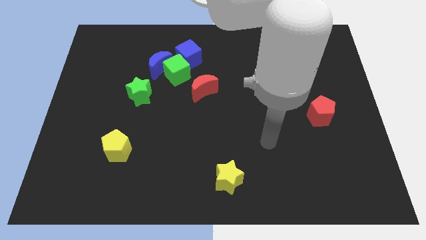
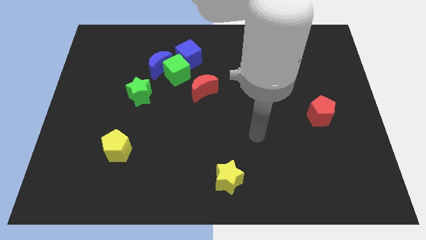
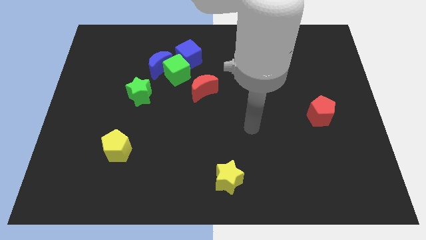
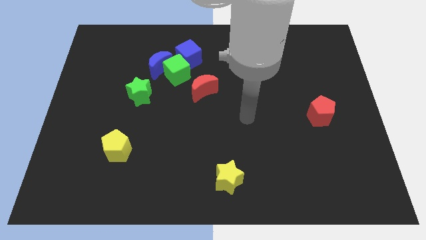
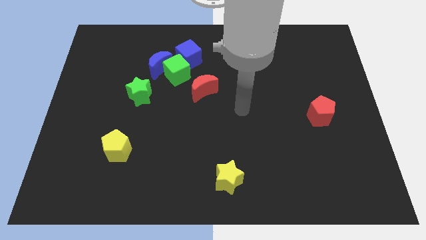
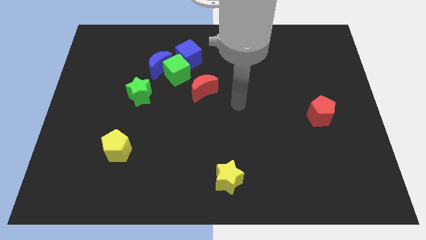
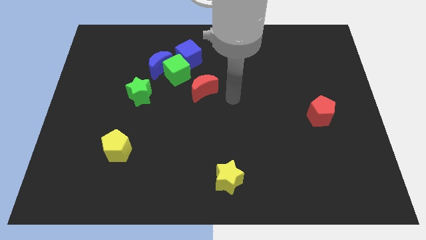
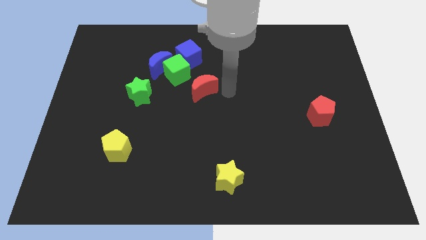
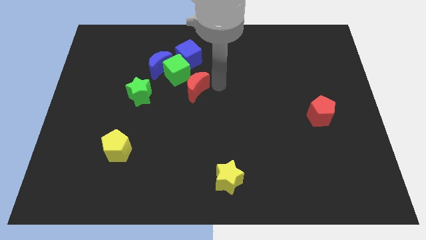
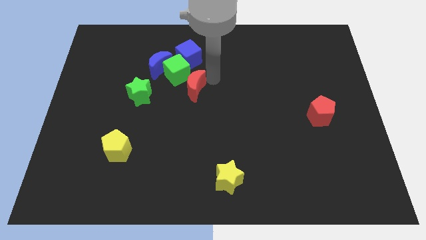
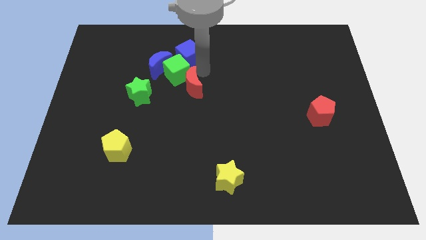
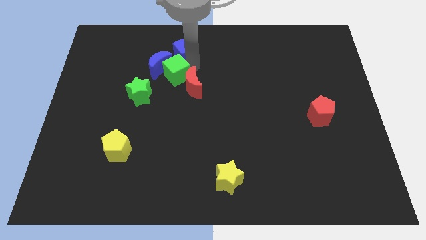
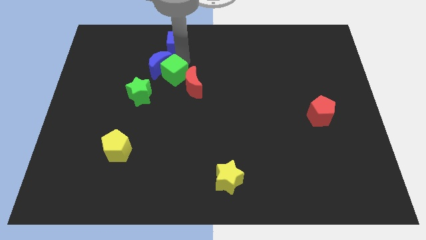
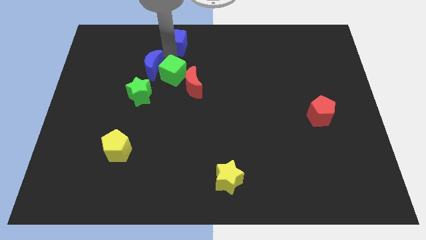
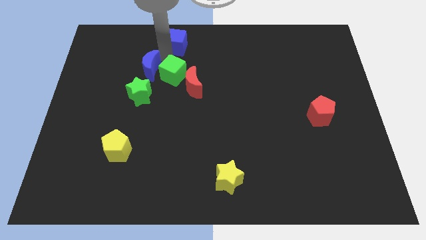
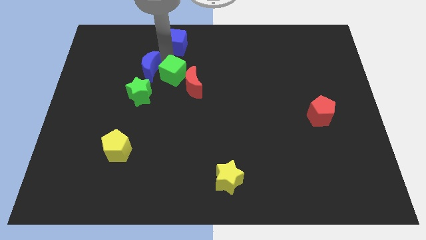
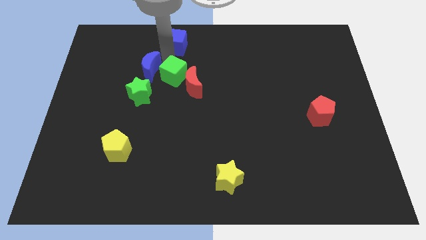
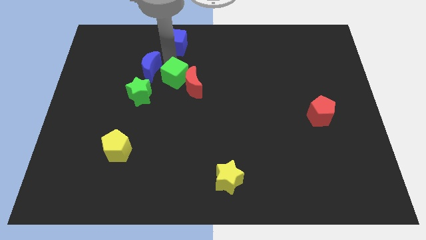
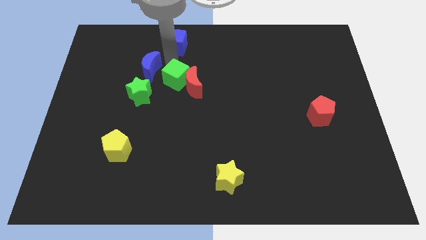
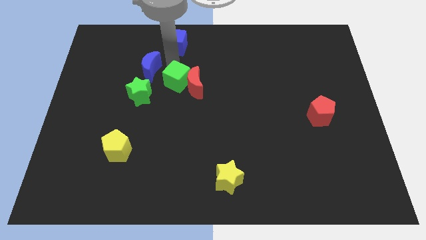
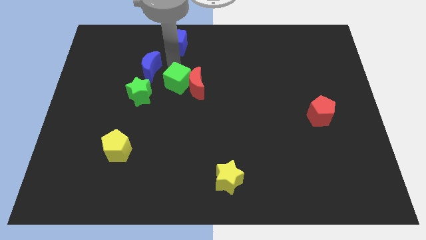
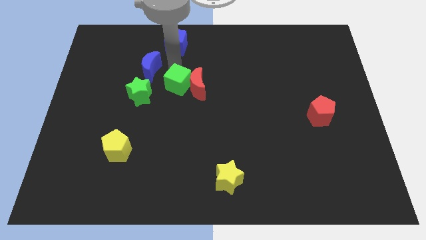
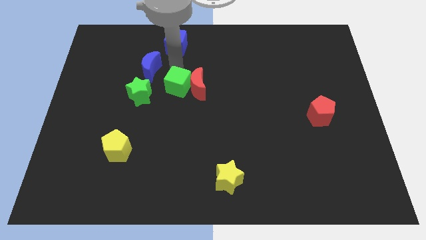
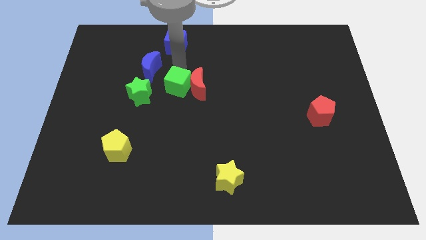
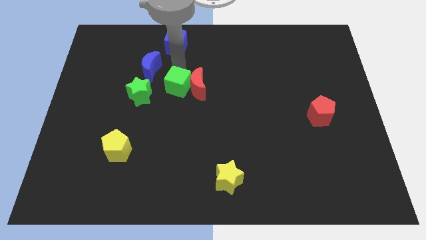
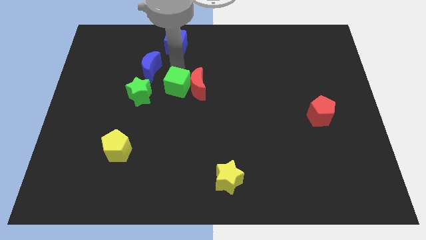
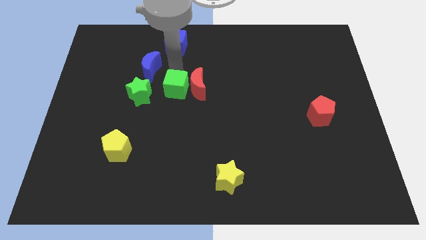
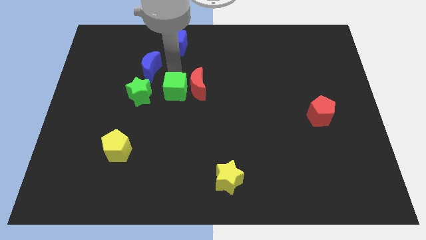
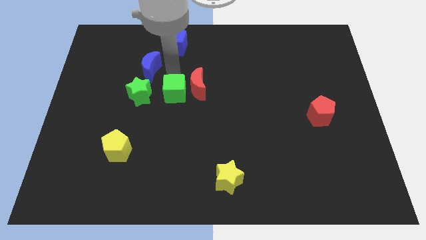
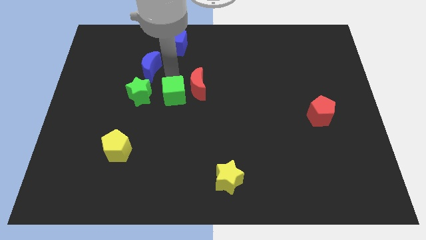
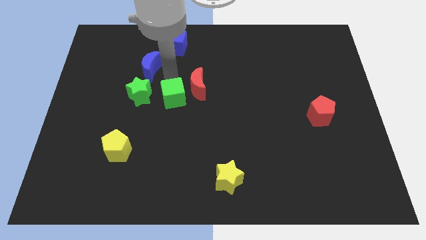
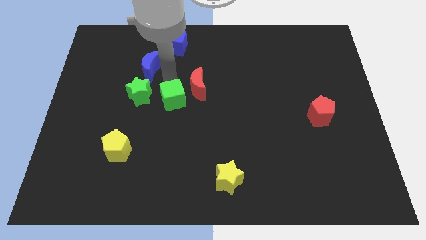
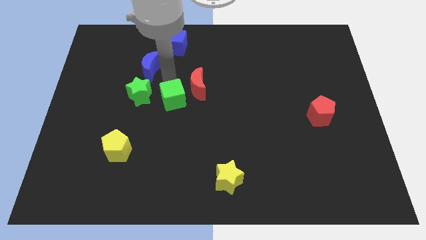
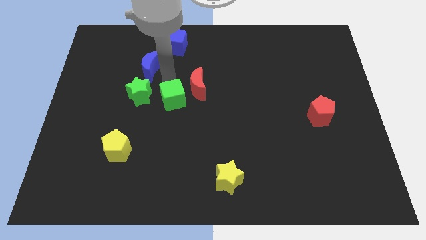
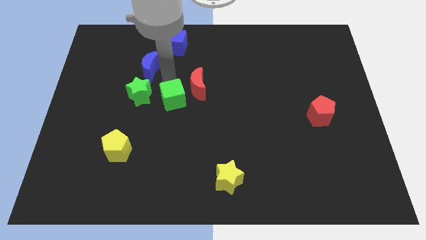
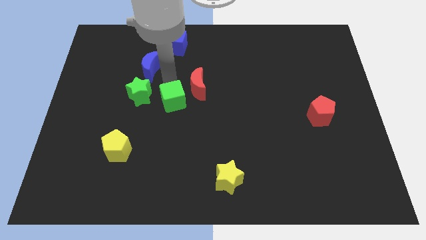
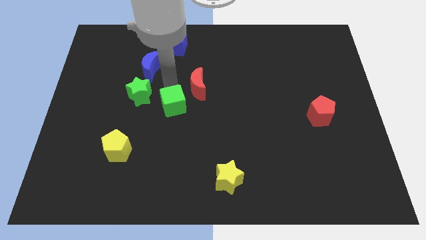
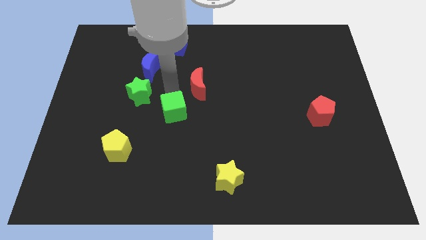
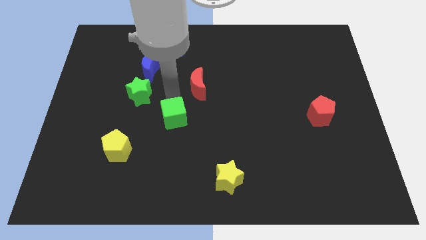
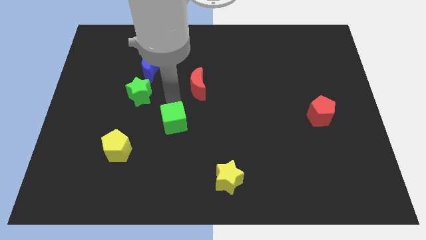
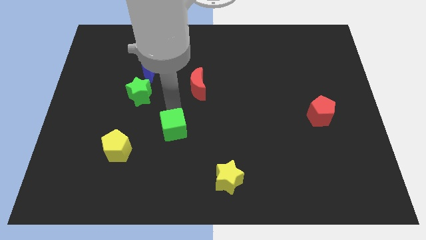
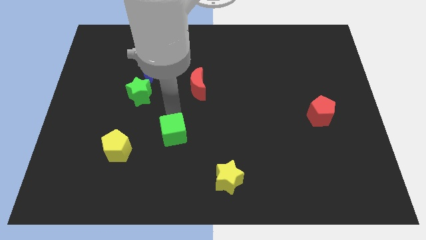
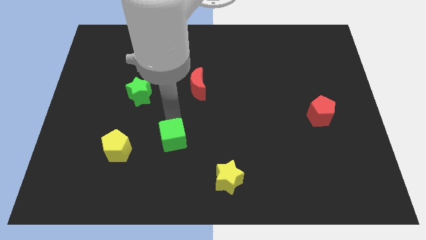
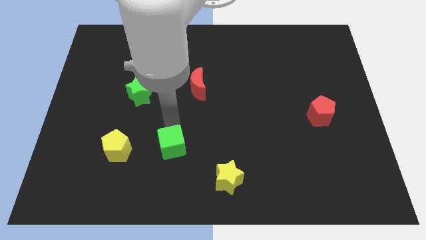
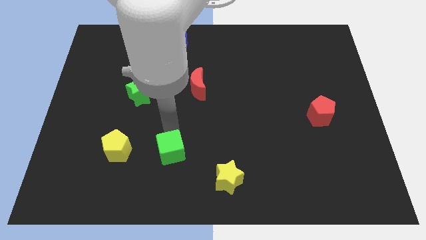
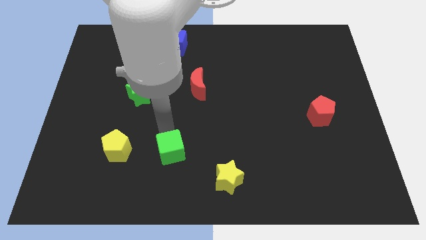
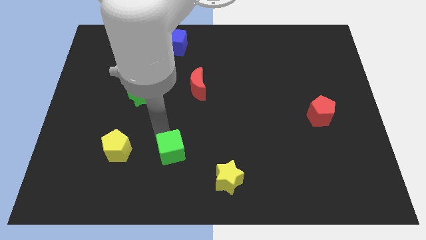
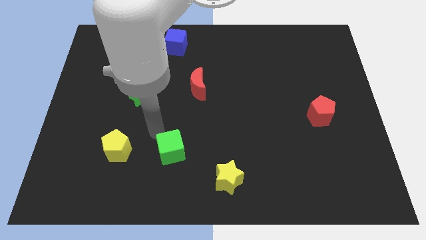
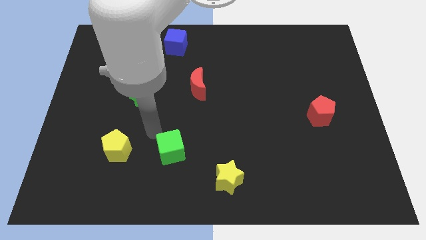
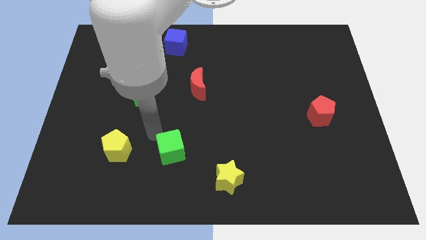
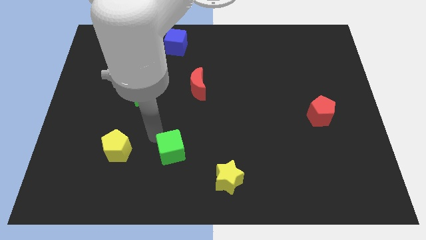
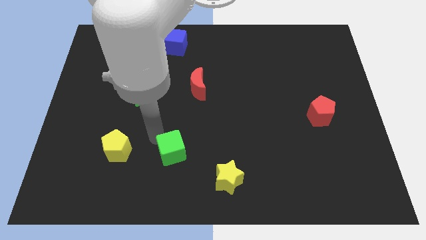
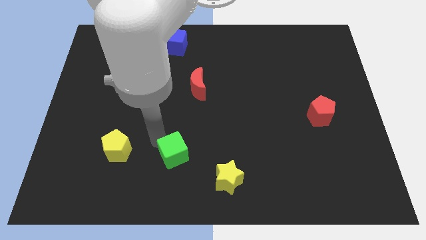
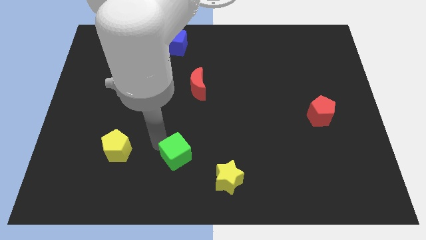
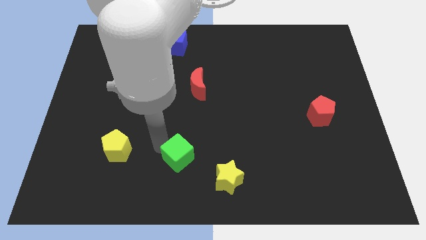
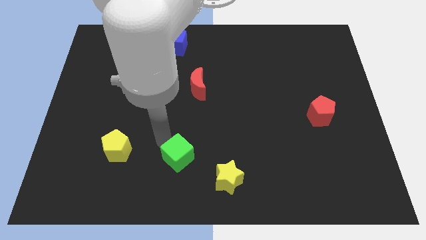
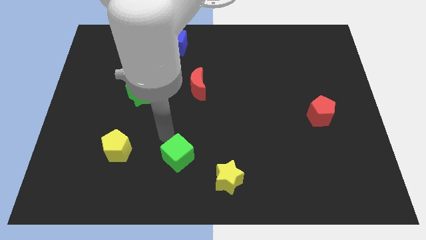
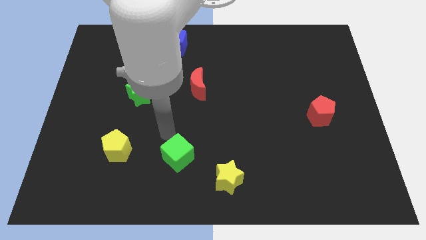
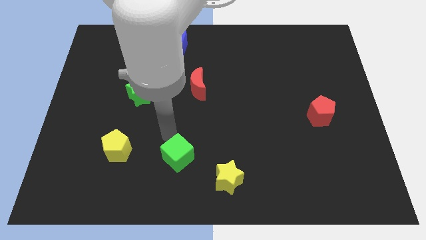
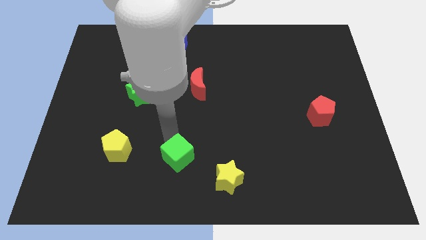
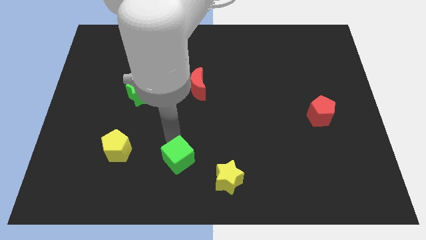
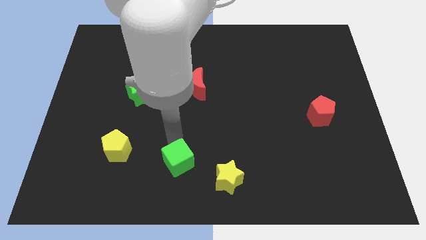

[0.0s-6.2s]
slide the green cube to the bottom

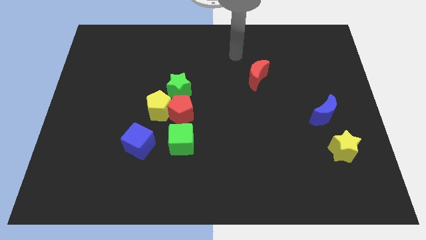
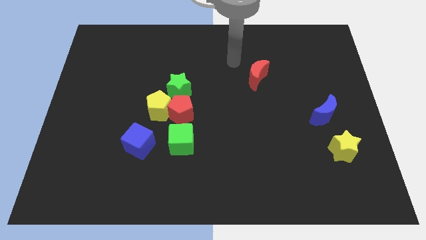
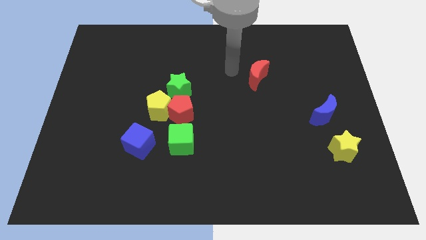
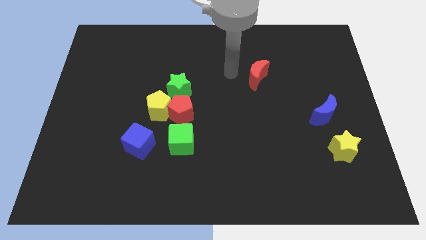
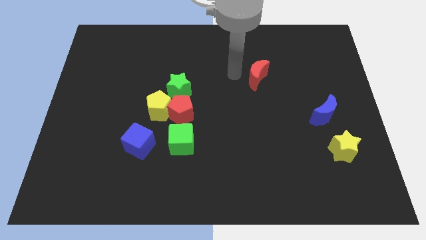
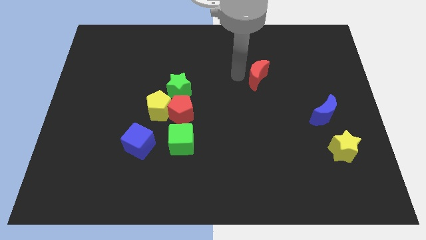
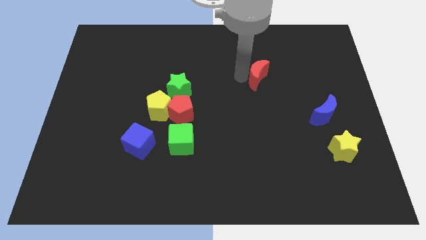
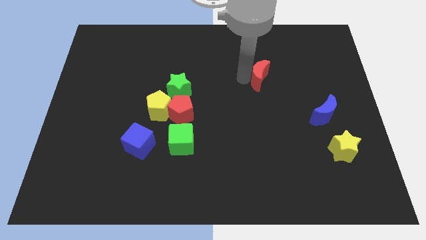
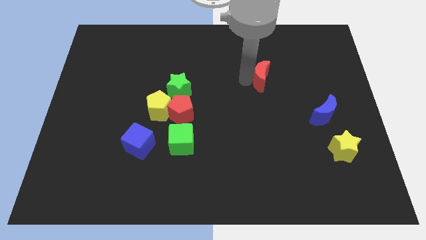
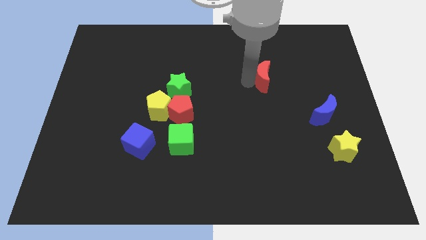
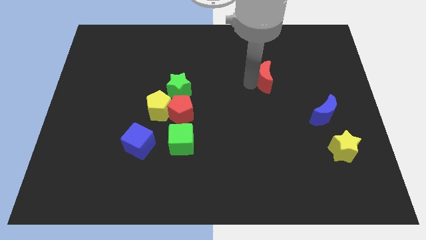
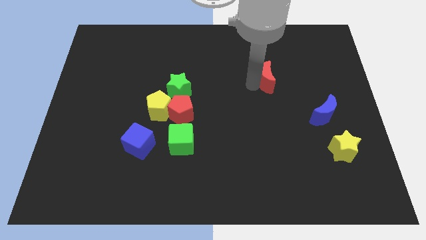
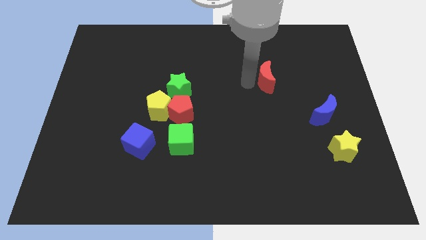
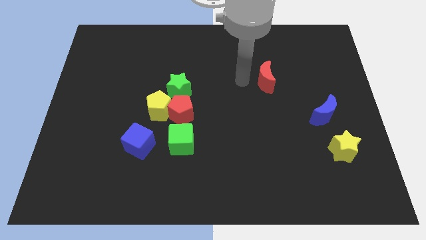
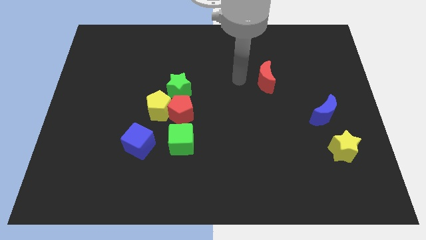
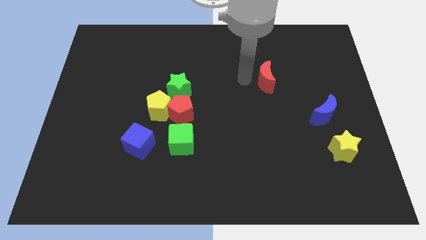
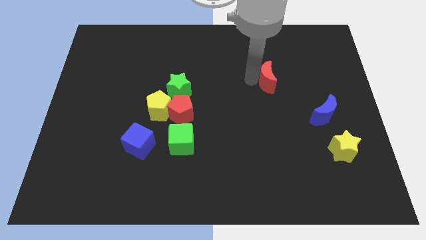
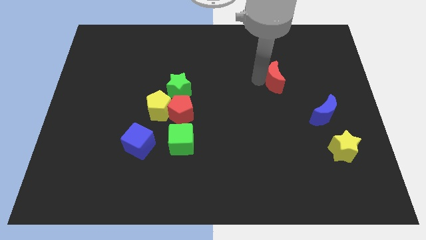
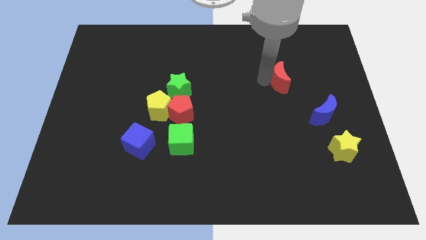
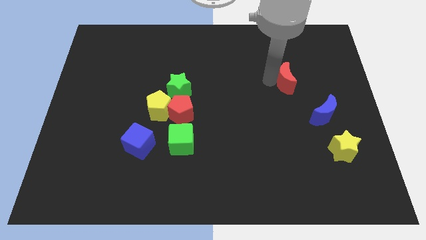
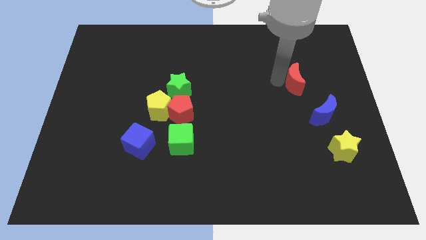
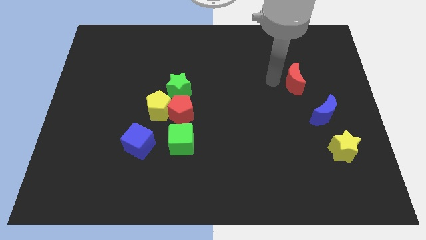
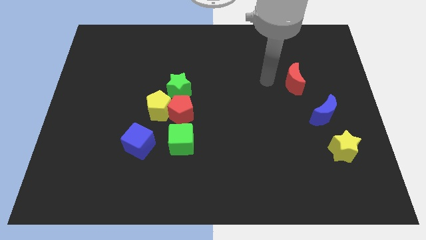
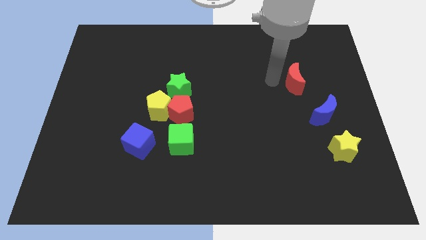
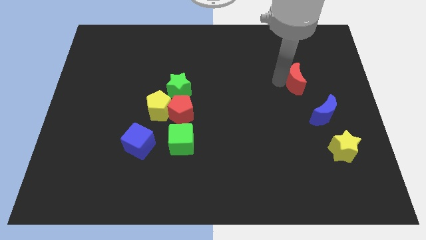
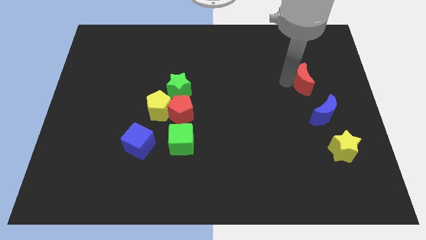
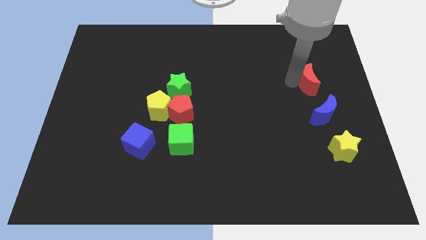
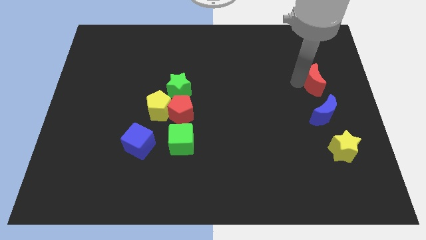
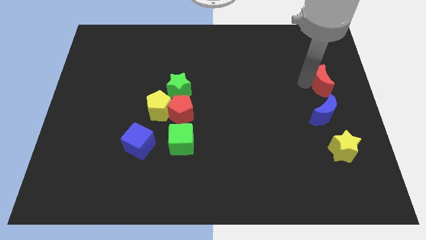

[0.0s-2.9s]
move the red moon to the right side of the board
